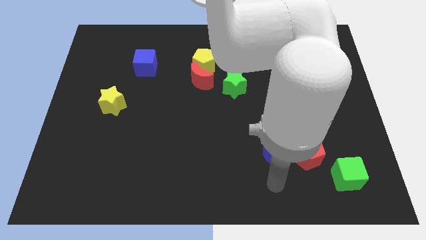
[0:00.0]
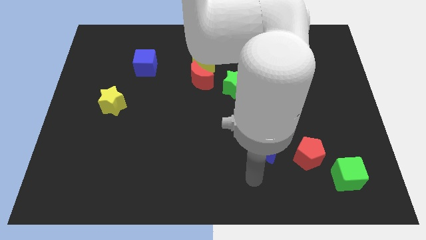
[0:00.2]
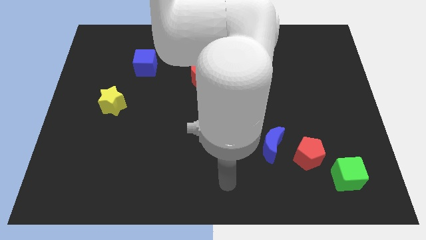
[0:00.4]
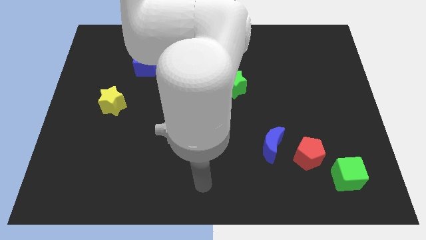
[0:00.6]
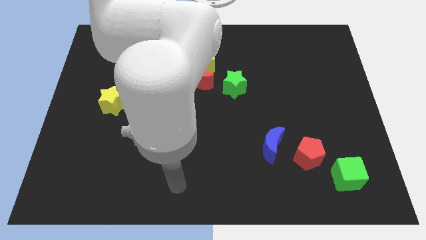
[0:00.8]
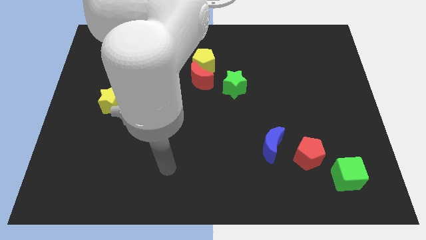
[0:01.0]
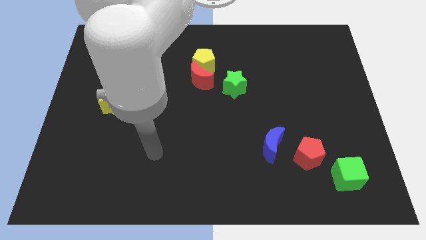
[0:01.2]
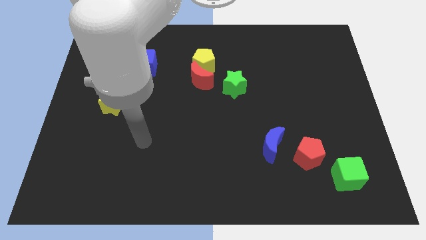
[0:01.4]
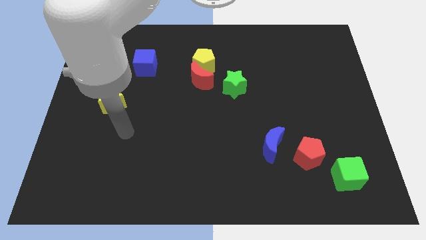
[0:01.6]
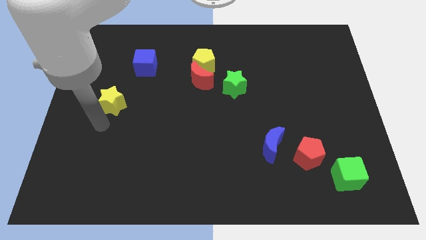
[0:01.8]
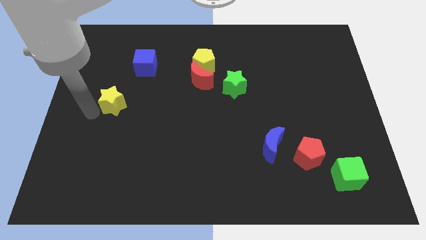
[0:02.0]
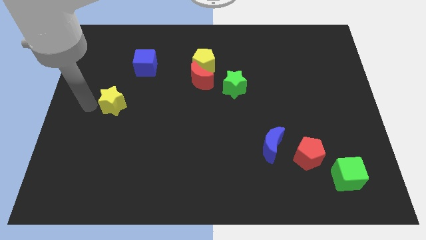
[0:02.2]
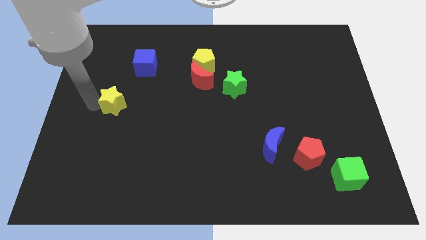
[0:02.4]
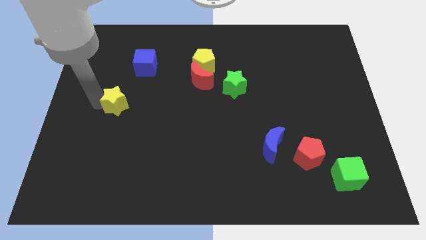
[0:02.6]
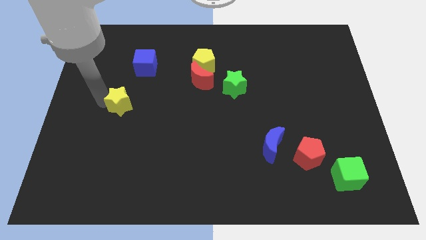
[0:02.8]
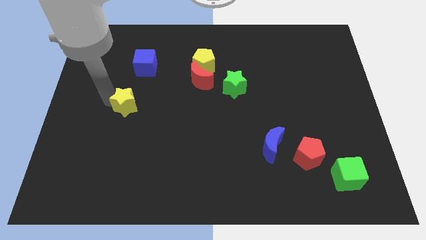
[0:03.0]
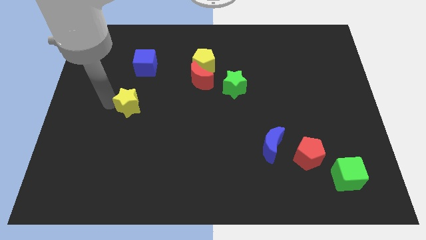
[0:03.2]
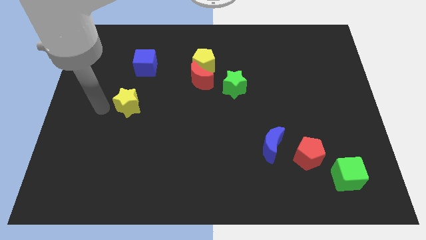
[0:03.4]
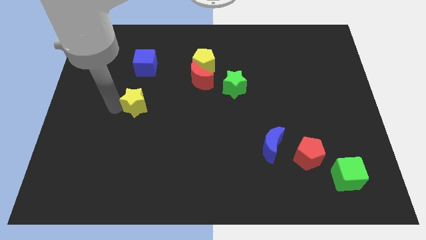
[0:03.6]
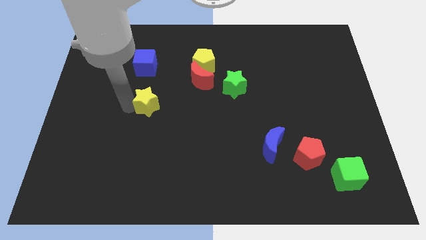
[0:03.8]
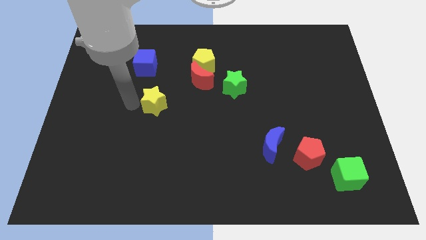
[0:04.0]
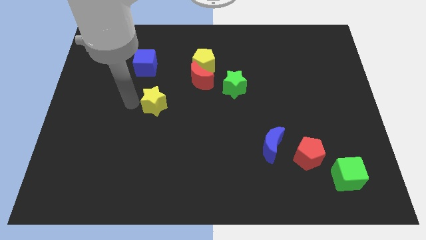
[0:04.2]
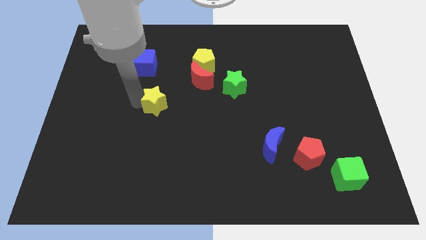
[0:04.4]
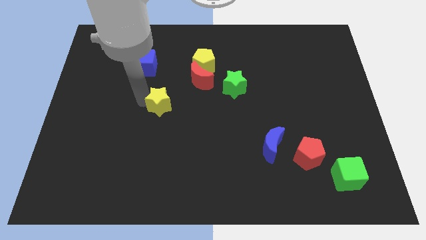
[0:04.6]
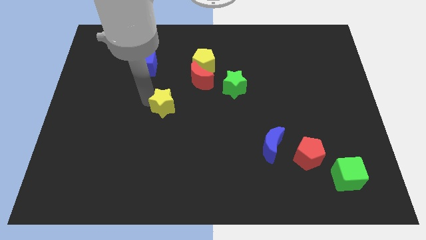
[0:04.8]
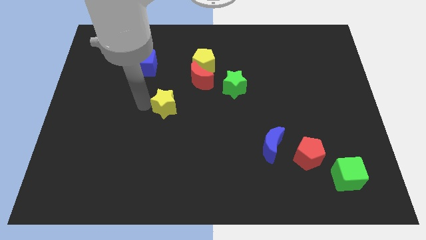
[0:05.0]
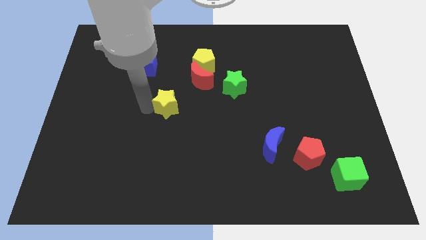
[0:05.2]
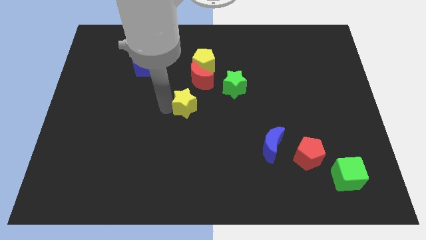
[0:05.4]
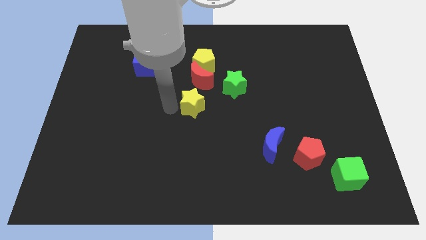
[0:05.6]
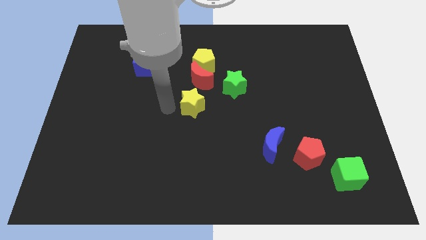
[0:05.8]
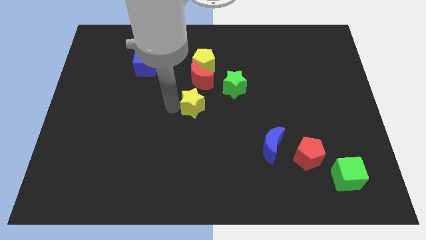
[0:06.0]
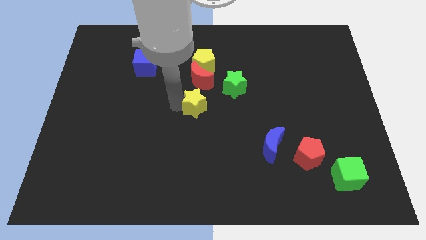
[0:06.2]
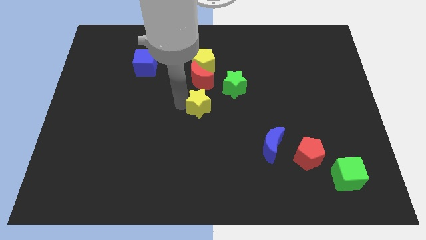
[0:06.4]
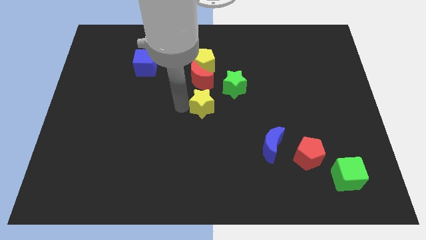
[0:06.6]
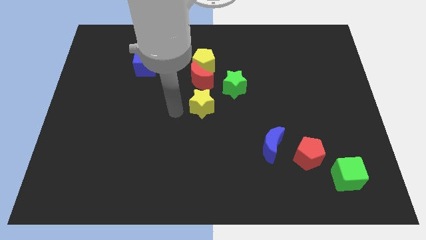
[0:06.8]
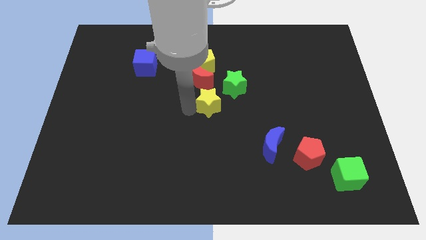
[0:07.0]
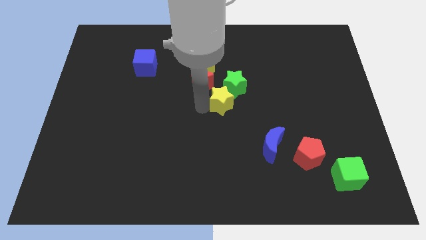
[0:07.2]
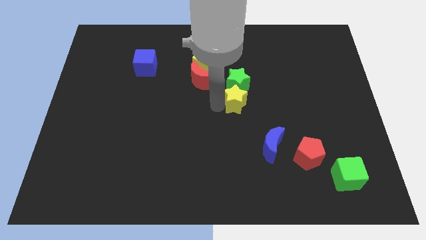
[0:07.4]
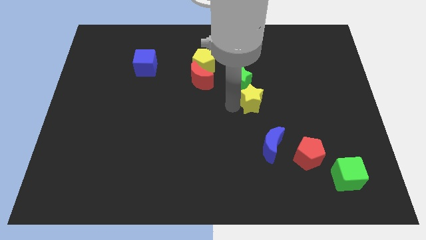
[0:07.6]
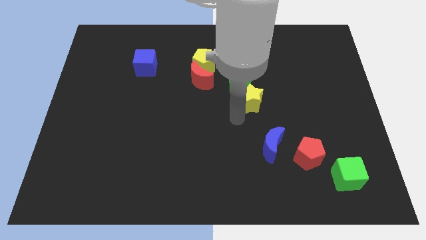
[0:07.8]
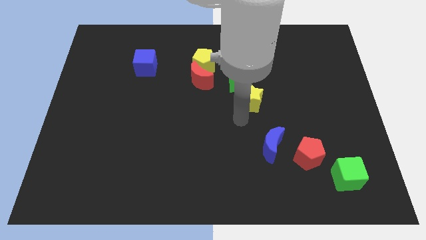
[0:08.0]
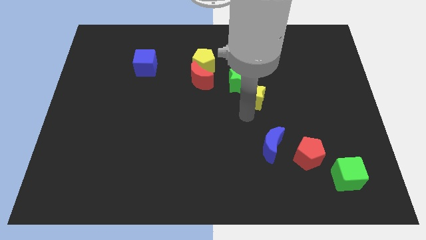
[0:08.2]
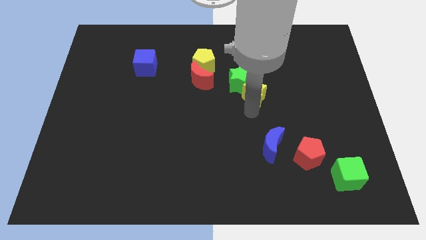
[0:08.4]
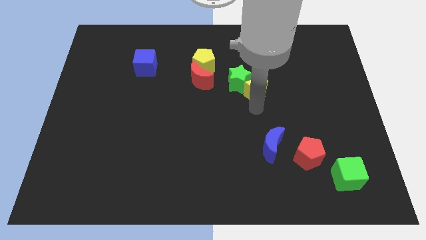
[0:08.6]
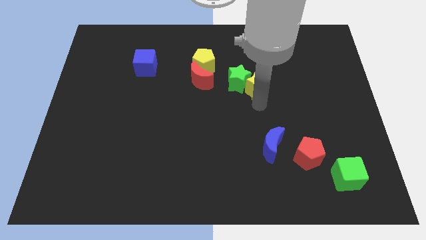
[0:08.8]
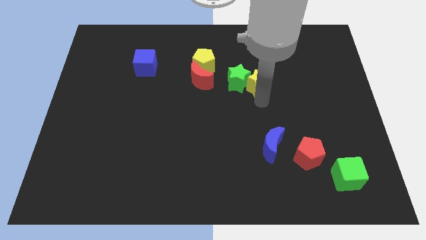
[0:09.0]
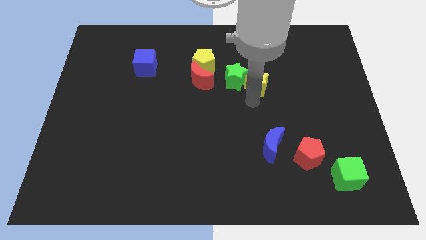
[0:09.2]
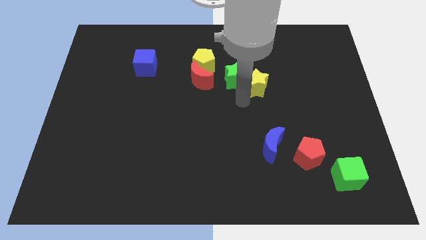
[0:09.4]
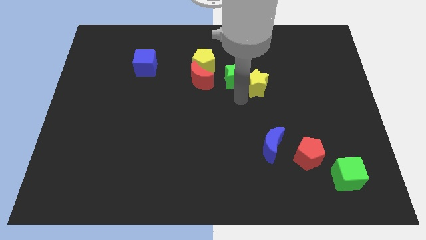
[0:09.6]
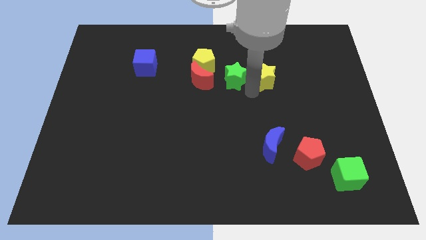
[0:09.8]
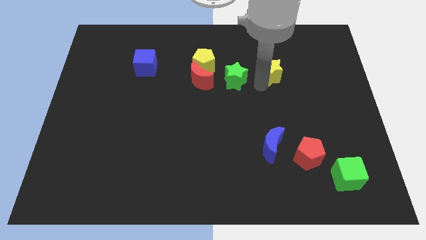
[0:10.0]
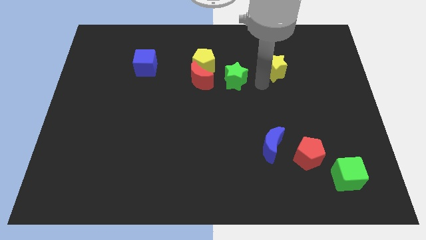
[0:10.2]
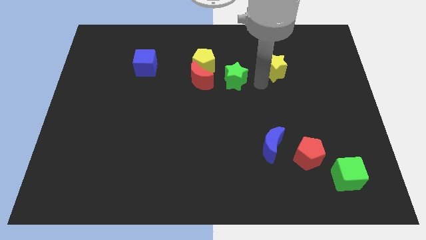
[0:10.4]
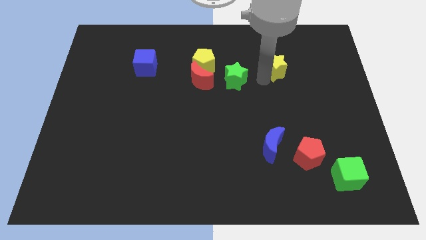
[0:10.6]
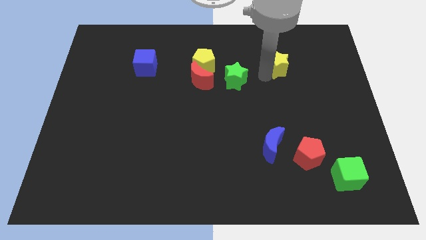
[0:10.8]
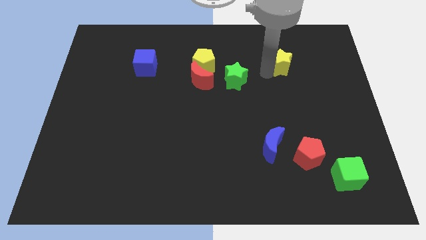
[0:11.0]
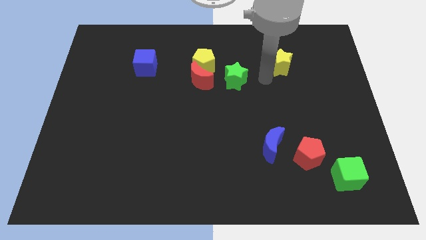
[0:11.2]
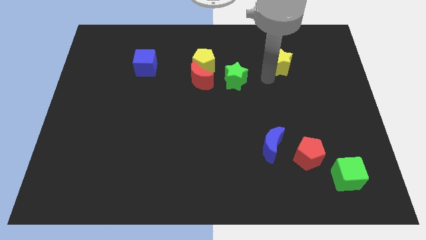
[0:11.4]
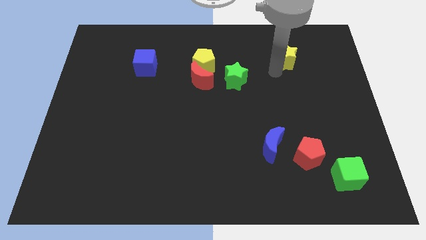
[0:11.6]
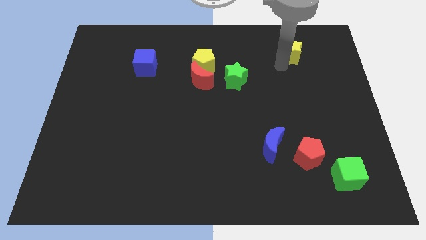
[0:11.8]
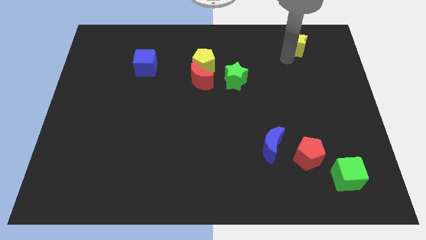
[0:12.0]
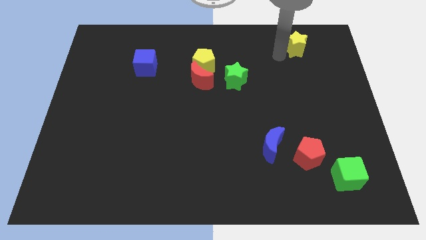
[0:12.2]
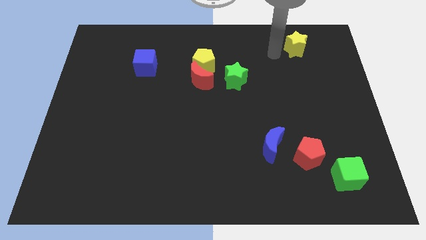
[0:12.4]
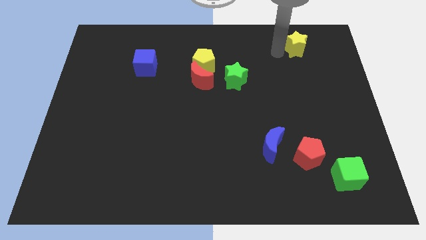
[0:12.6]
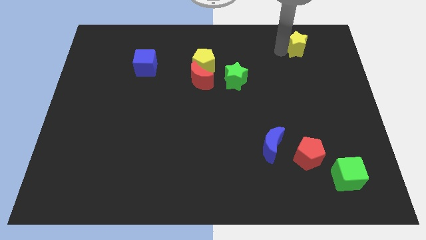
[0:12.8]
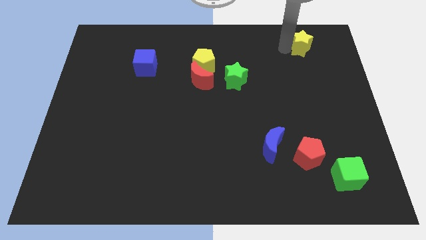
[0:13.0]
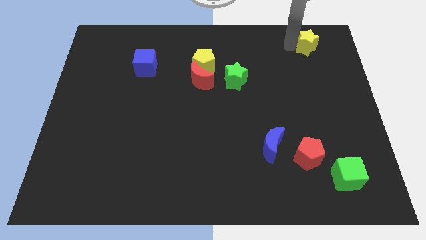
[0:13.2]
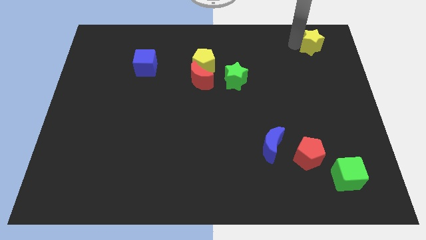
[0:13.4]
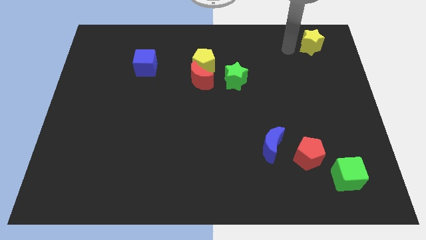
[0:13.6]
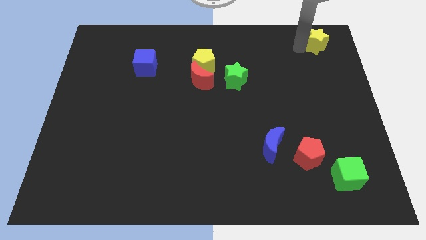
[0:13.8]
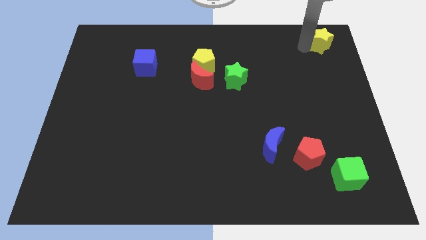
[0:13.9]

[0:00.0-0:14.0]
push the yellow star to the top right
